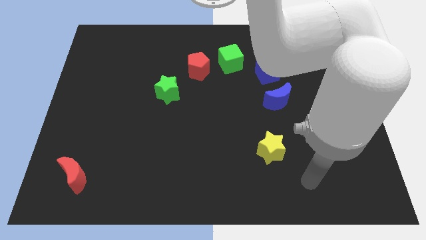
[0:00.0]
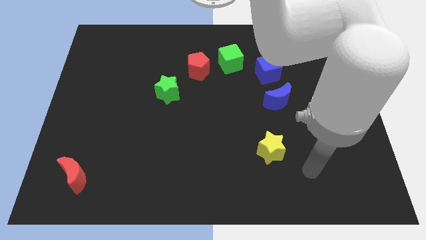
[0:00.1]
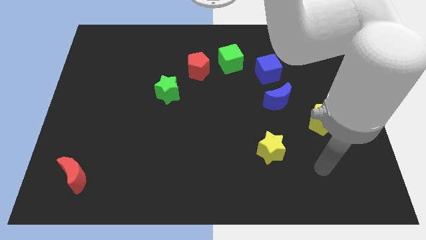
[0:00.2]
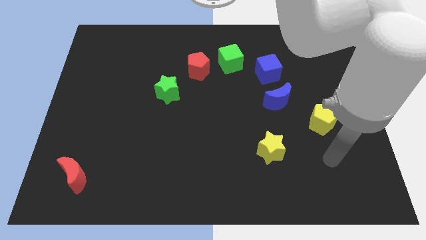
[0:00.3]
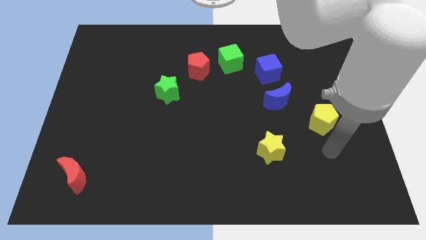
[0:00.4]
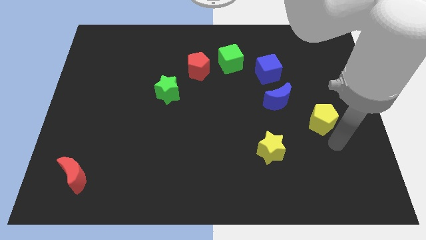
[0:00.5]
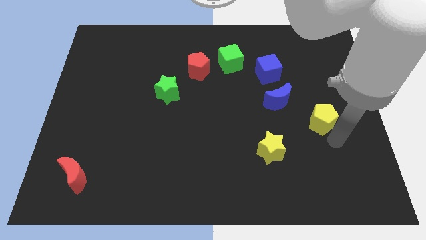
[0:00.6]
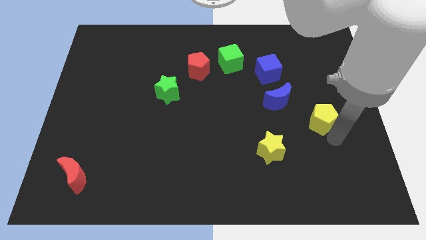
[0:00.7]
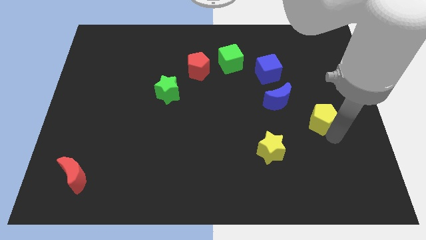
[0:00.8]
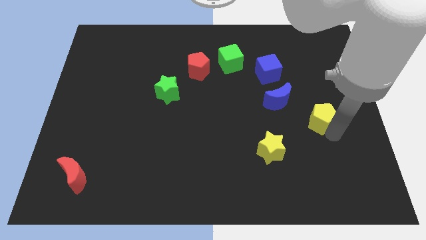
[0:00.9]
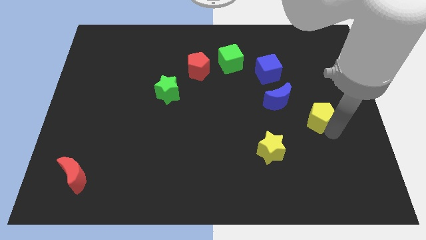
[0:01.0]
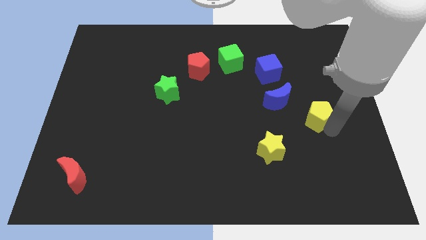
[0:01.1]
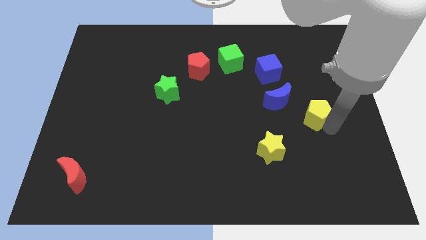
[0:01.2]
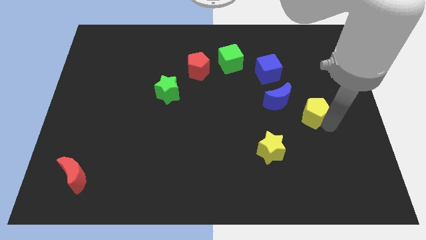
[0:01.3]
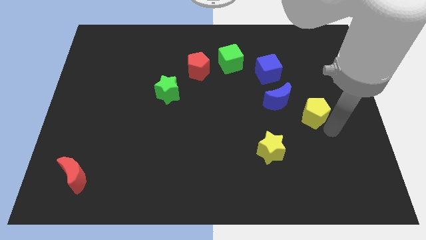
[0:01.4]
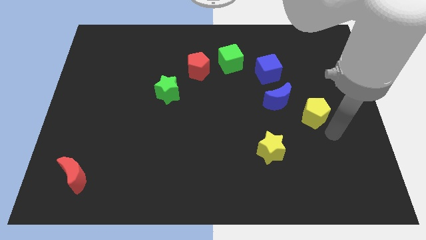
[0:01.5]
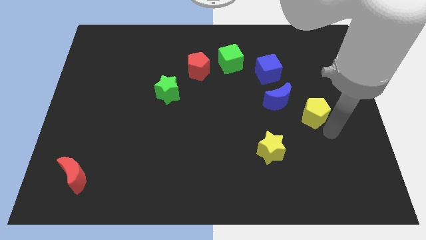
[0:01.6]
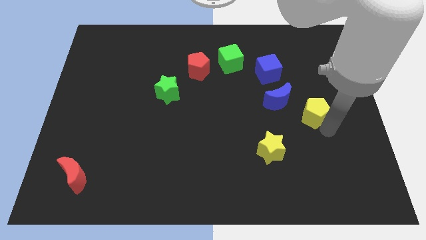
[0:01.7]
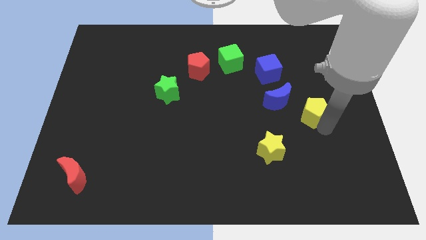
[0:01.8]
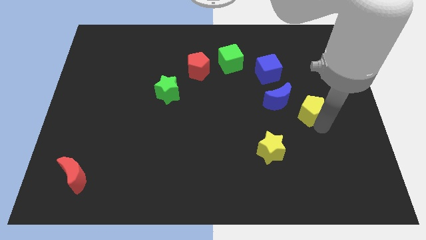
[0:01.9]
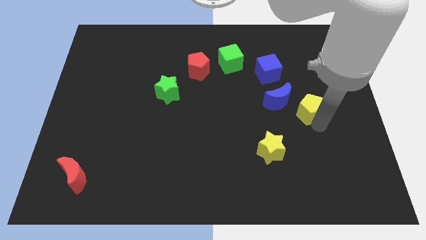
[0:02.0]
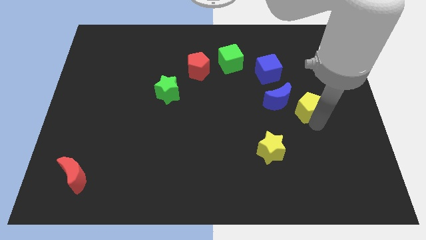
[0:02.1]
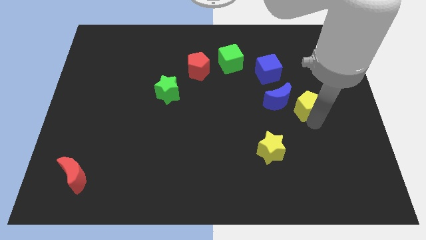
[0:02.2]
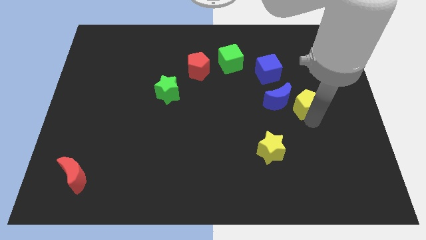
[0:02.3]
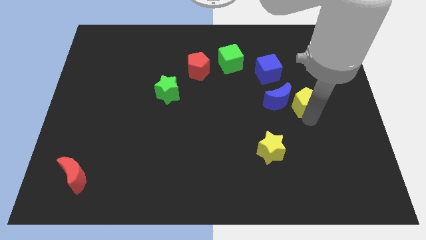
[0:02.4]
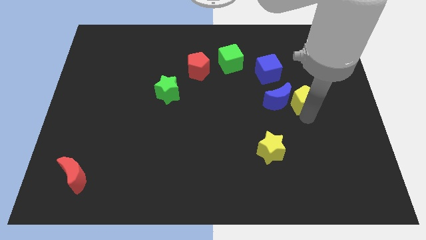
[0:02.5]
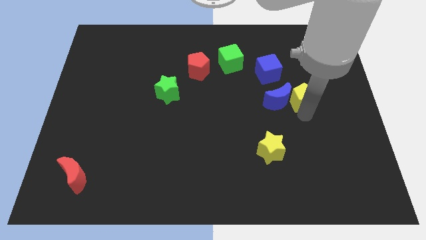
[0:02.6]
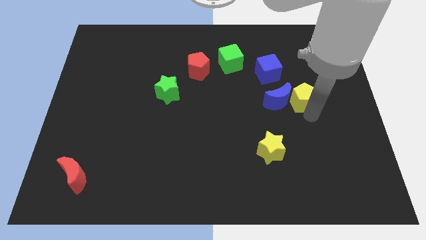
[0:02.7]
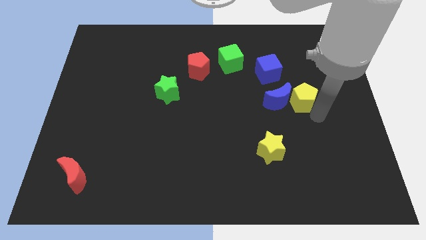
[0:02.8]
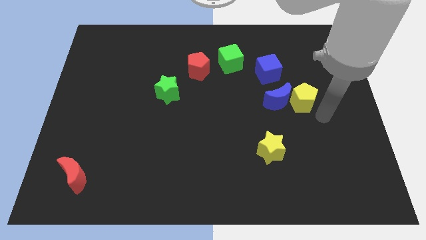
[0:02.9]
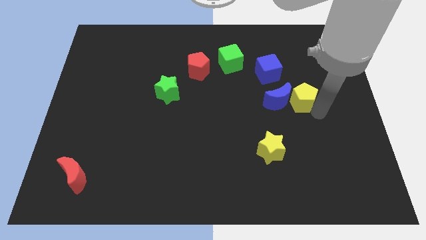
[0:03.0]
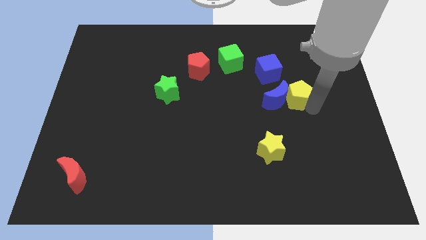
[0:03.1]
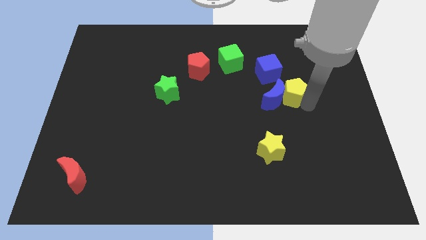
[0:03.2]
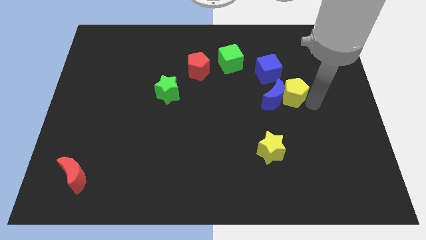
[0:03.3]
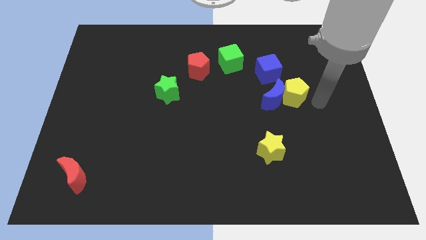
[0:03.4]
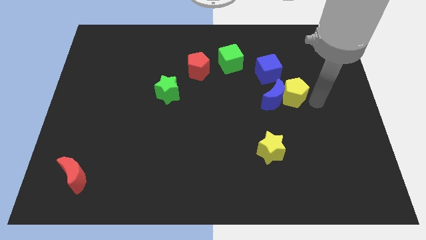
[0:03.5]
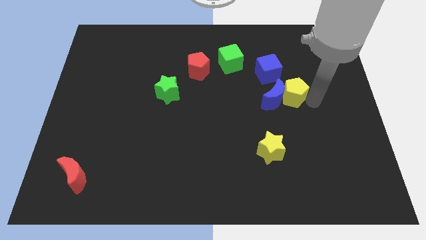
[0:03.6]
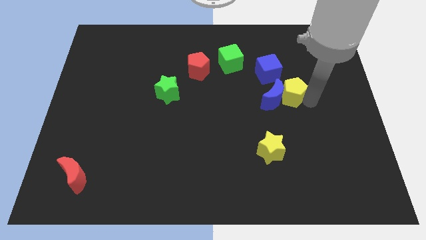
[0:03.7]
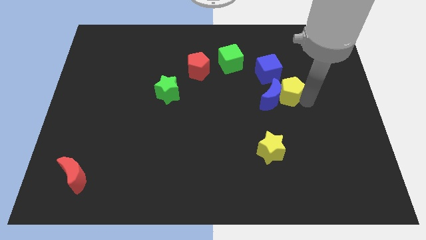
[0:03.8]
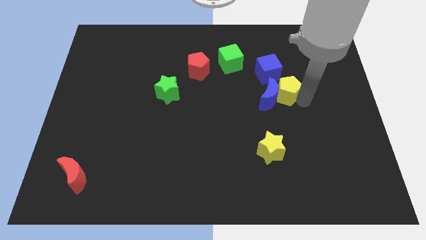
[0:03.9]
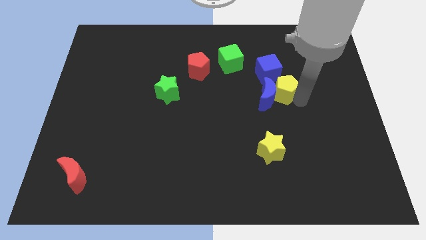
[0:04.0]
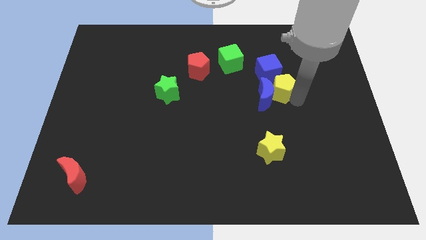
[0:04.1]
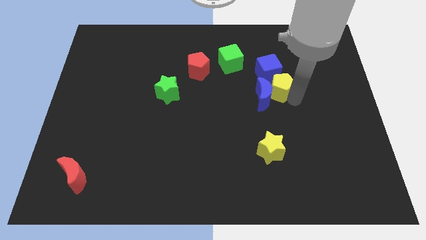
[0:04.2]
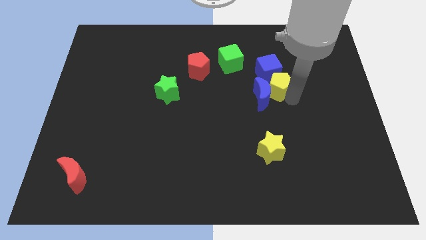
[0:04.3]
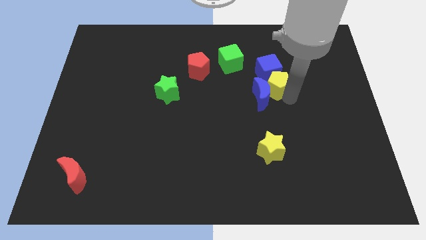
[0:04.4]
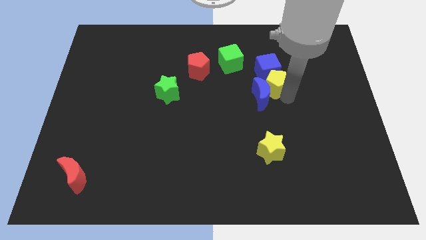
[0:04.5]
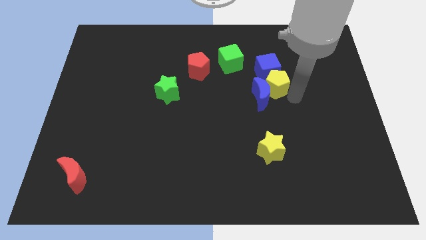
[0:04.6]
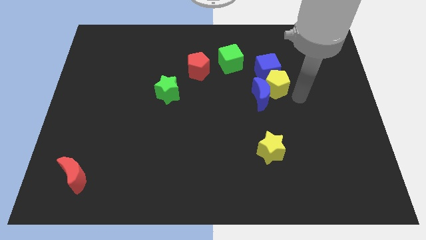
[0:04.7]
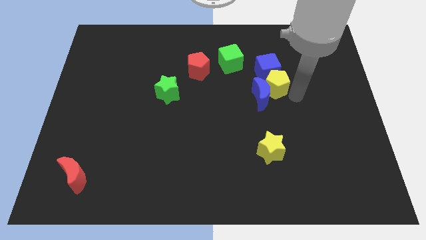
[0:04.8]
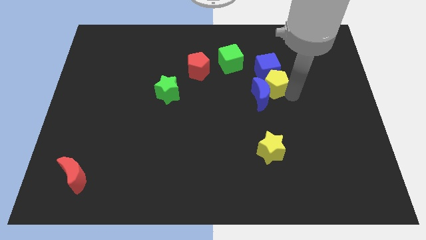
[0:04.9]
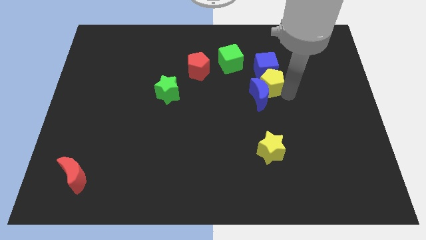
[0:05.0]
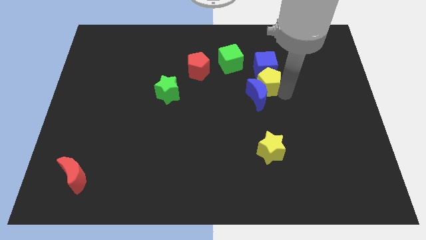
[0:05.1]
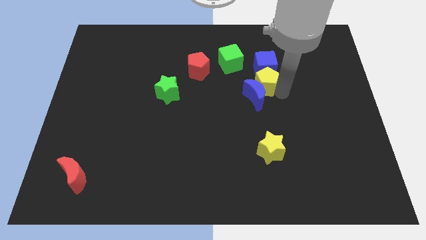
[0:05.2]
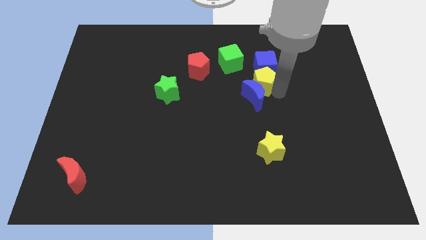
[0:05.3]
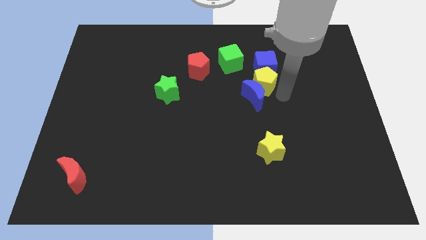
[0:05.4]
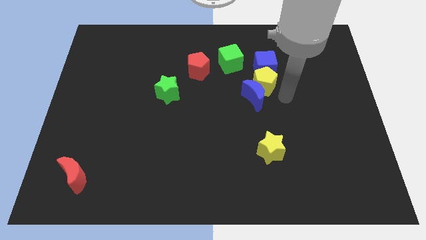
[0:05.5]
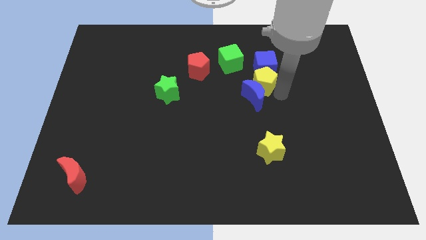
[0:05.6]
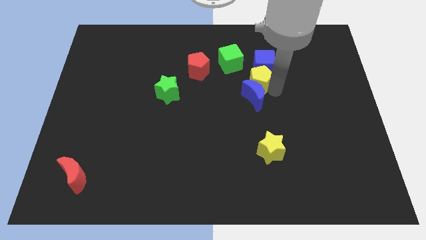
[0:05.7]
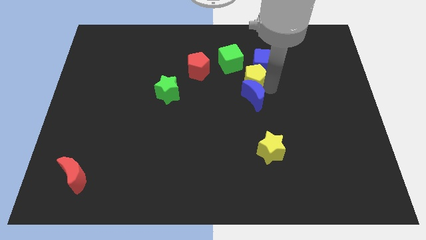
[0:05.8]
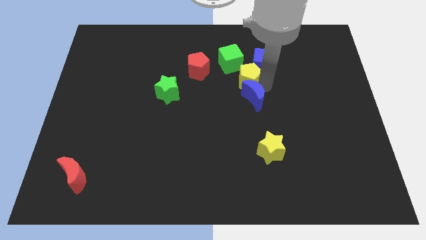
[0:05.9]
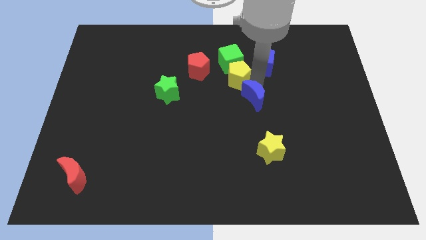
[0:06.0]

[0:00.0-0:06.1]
push the yellow pentagon towards the green cube

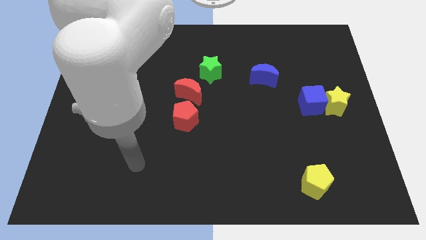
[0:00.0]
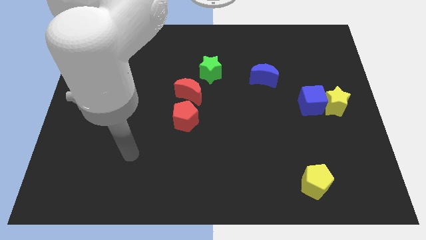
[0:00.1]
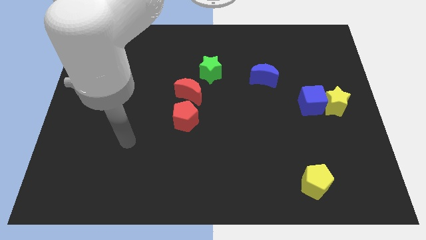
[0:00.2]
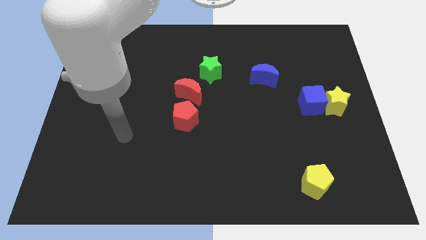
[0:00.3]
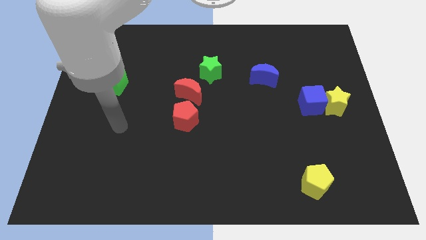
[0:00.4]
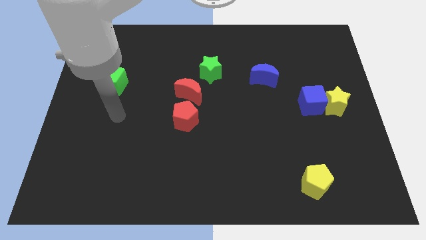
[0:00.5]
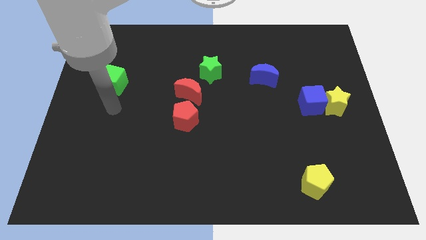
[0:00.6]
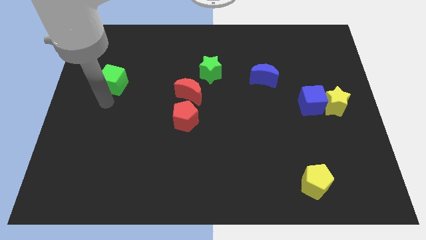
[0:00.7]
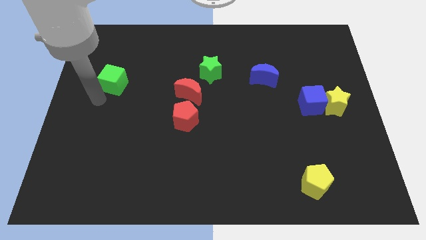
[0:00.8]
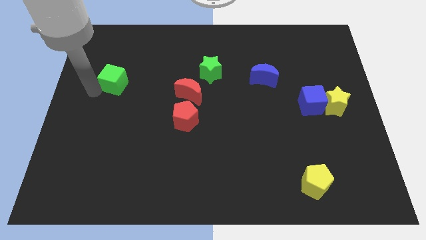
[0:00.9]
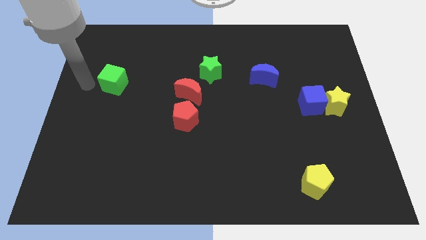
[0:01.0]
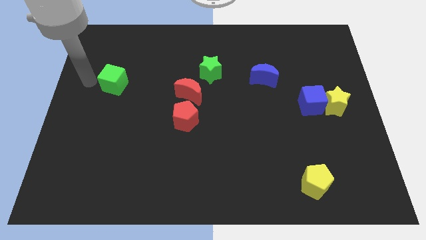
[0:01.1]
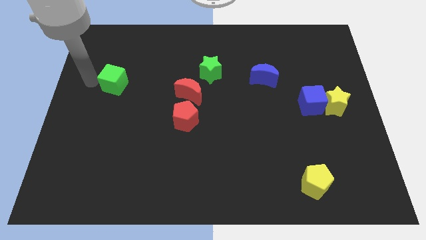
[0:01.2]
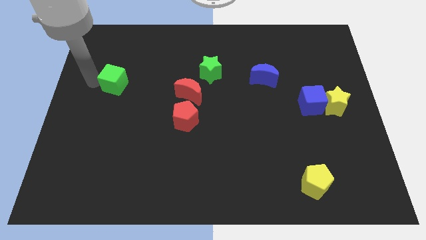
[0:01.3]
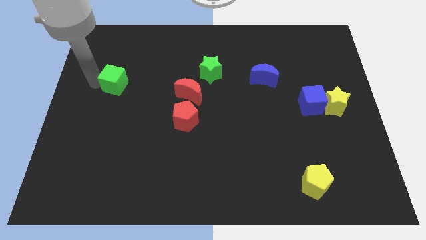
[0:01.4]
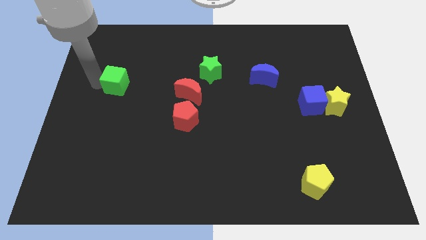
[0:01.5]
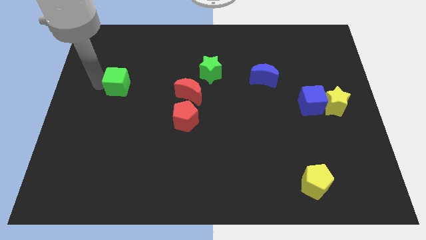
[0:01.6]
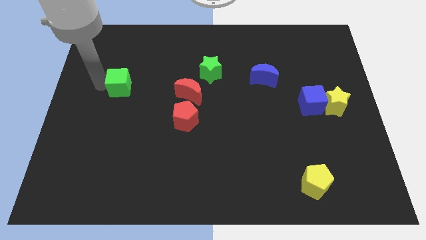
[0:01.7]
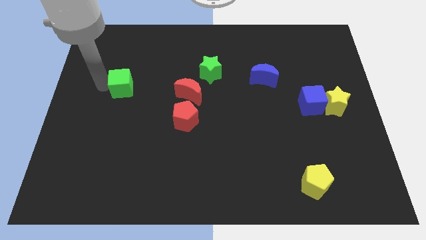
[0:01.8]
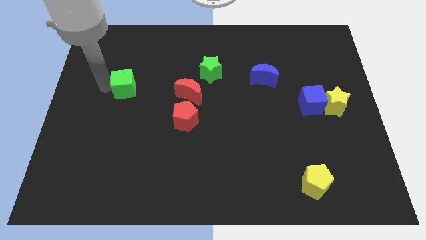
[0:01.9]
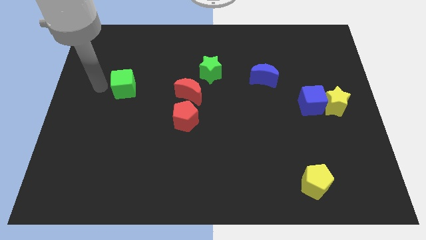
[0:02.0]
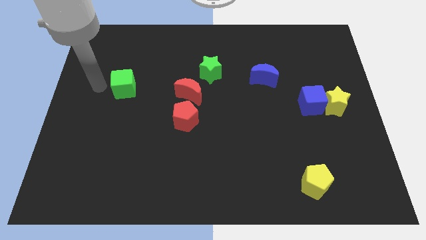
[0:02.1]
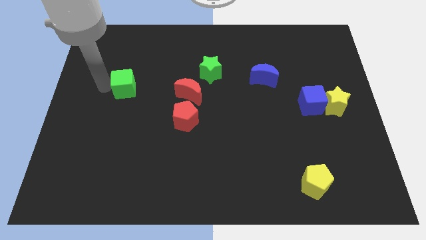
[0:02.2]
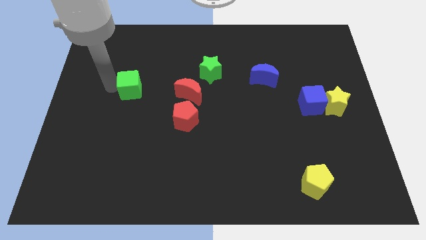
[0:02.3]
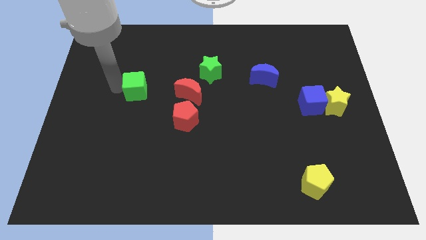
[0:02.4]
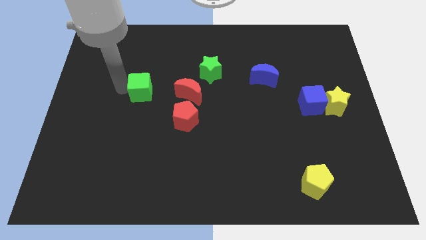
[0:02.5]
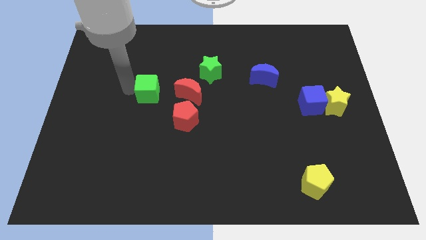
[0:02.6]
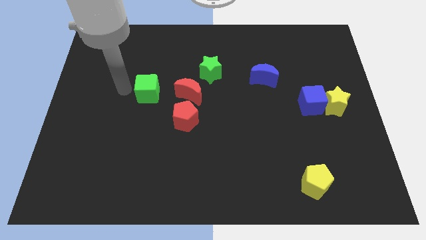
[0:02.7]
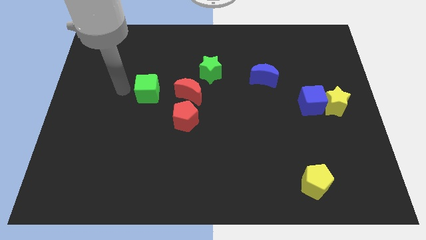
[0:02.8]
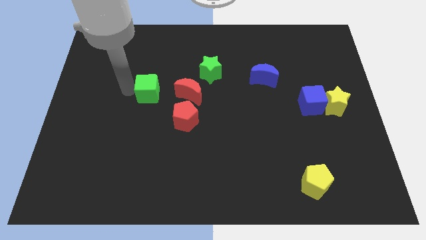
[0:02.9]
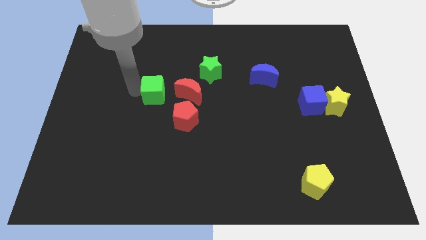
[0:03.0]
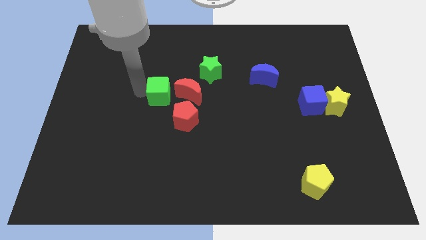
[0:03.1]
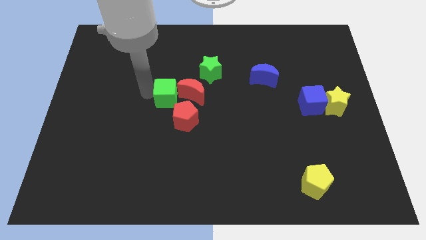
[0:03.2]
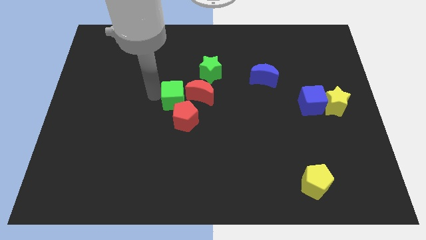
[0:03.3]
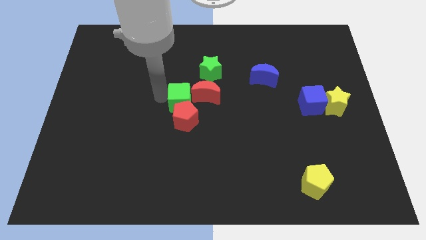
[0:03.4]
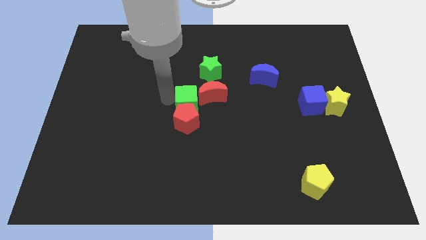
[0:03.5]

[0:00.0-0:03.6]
put the green cube close to the red moon
